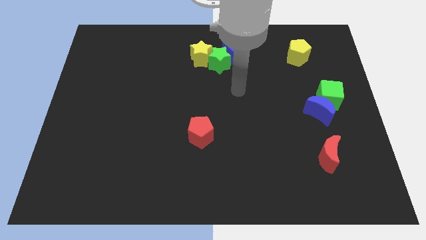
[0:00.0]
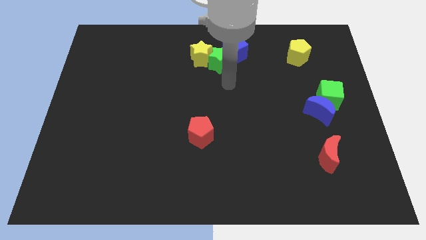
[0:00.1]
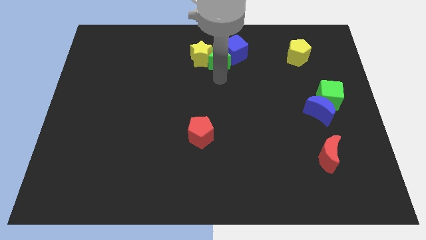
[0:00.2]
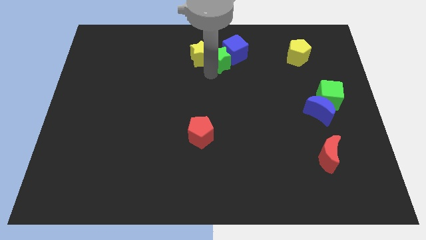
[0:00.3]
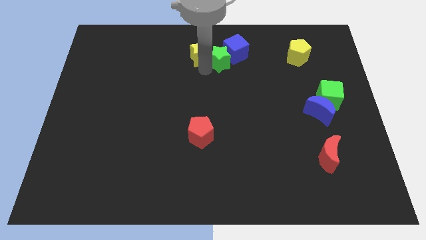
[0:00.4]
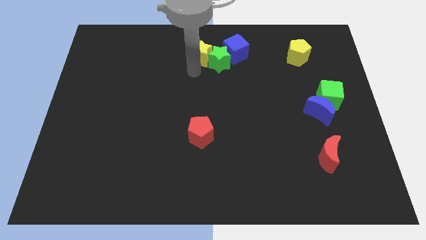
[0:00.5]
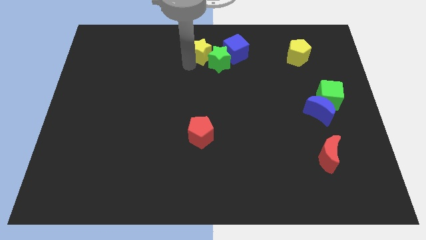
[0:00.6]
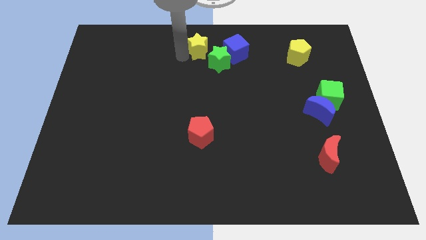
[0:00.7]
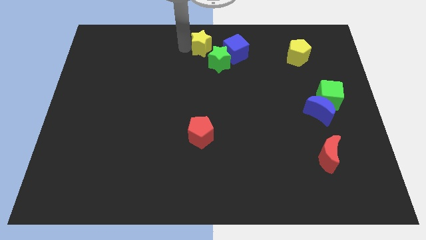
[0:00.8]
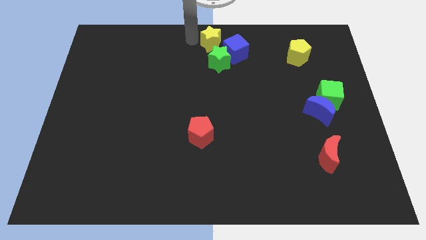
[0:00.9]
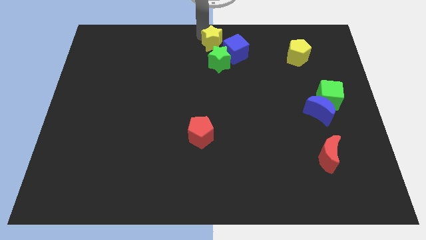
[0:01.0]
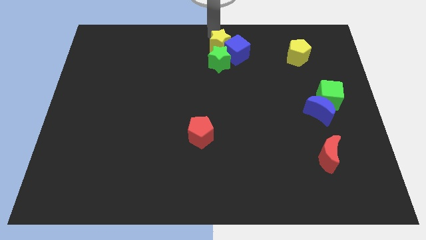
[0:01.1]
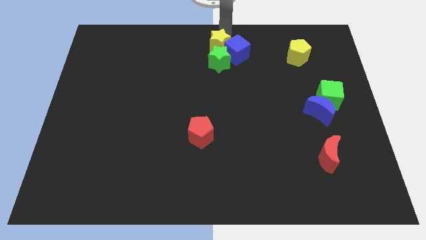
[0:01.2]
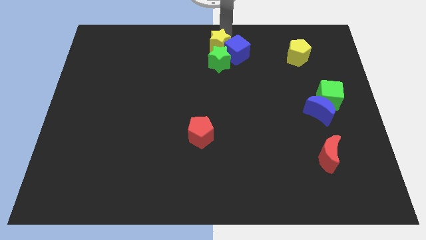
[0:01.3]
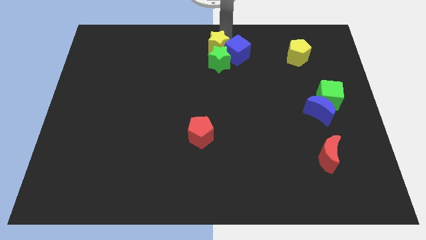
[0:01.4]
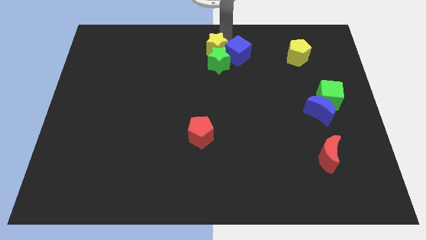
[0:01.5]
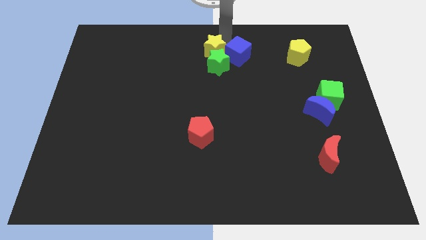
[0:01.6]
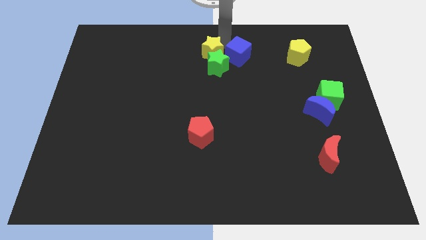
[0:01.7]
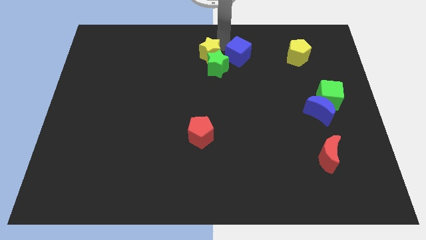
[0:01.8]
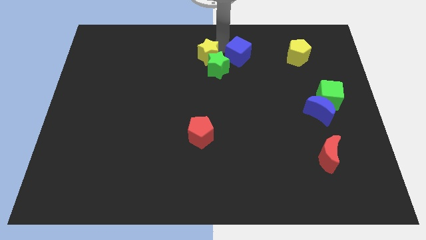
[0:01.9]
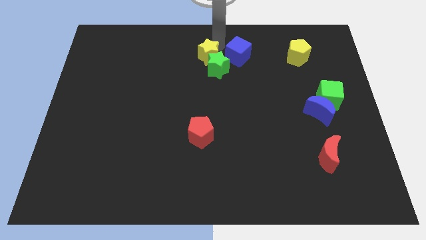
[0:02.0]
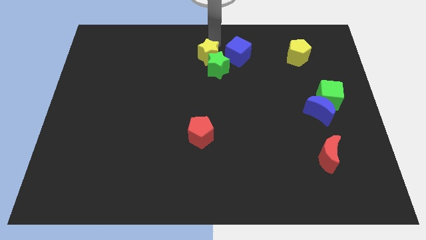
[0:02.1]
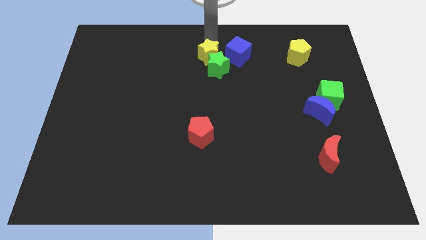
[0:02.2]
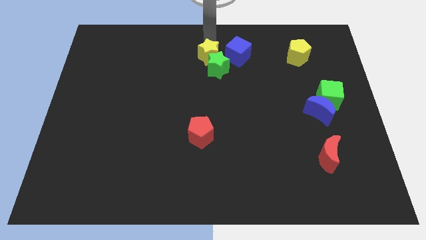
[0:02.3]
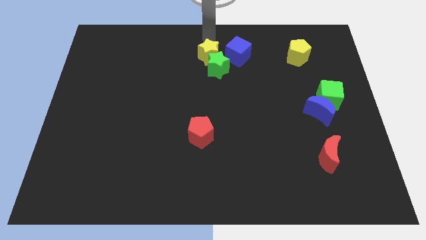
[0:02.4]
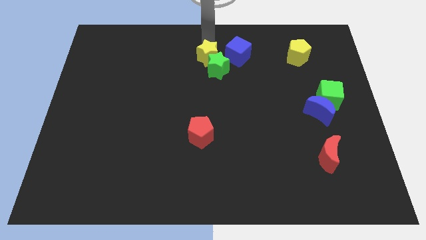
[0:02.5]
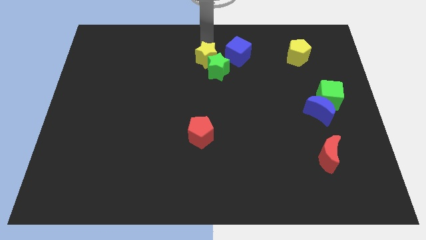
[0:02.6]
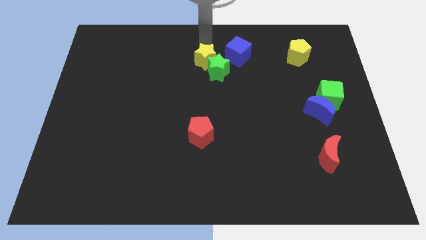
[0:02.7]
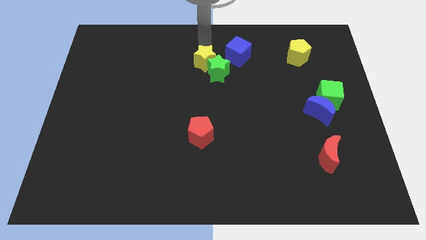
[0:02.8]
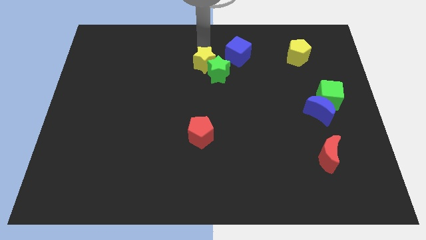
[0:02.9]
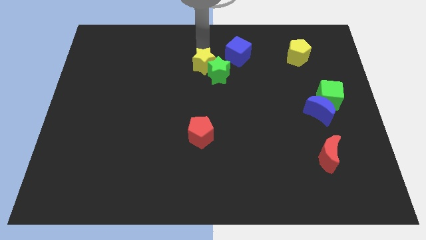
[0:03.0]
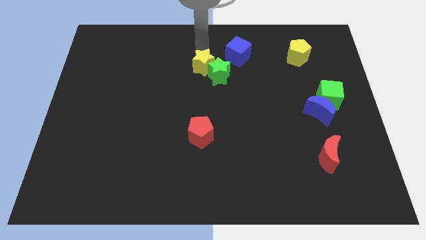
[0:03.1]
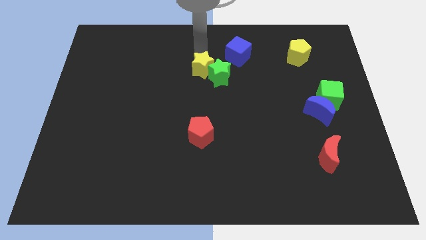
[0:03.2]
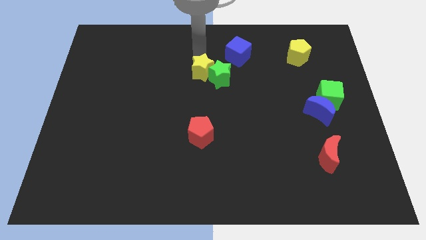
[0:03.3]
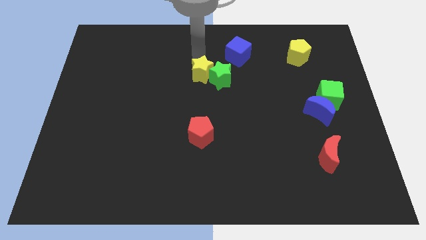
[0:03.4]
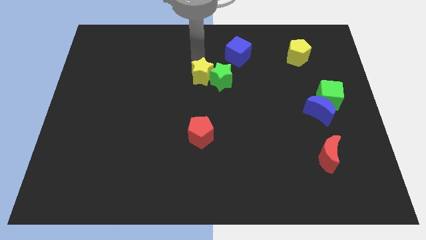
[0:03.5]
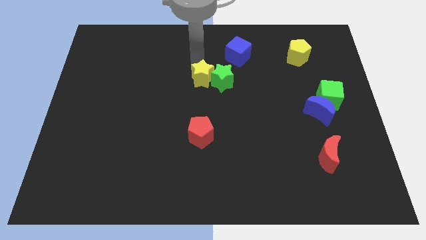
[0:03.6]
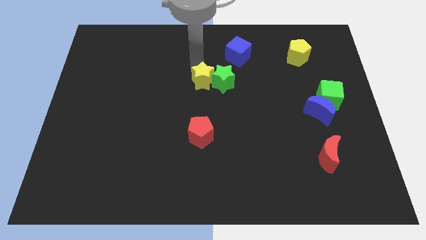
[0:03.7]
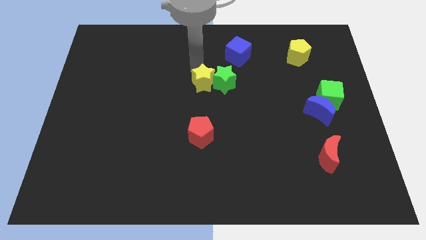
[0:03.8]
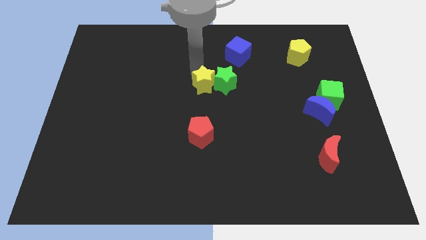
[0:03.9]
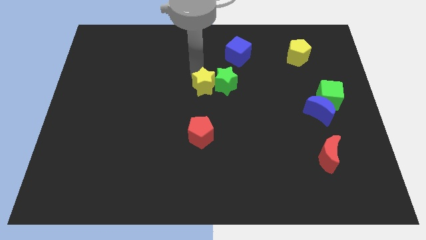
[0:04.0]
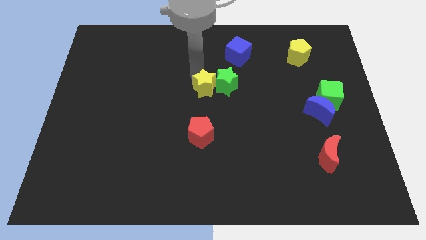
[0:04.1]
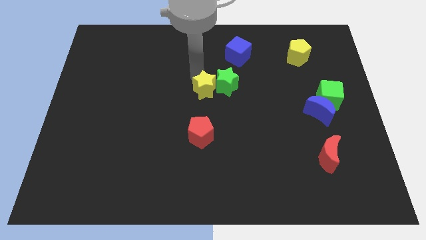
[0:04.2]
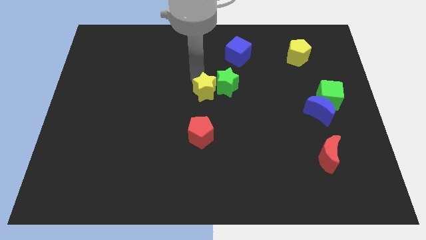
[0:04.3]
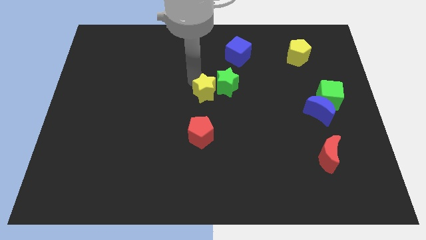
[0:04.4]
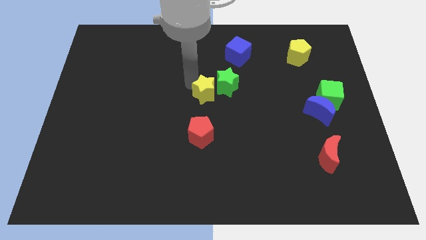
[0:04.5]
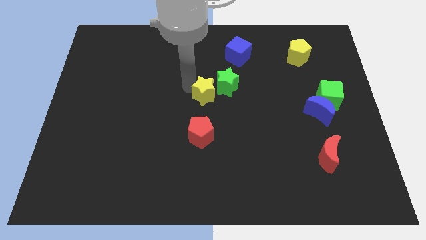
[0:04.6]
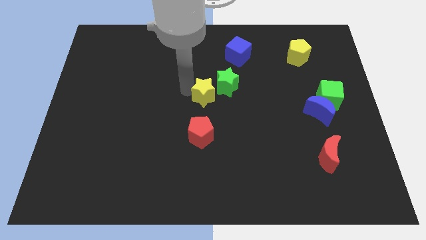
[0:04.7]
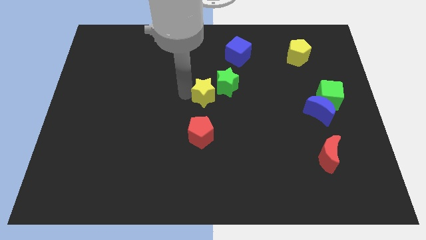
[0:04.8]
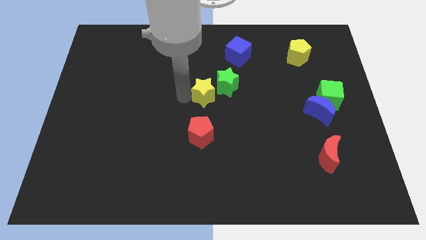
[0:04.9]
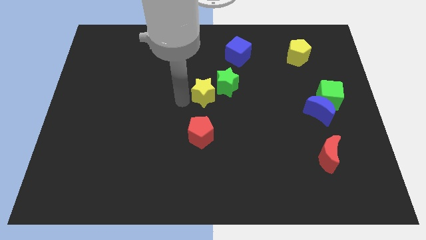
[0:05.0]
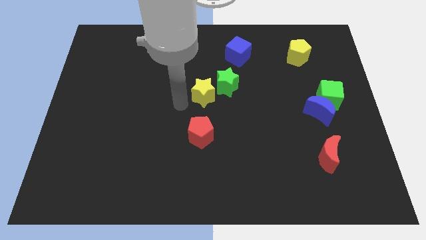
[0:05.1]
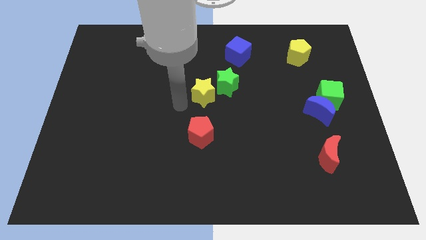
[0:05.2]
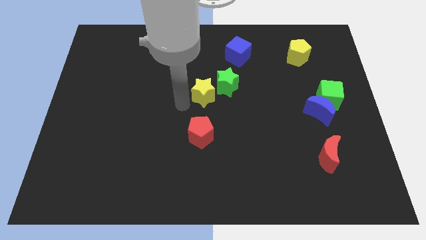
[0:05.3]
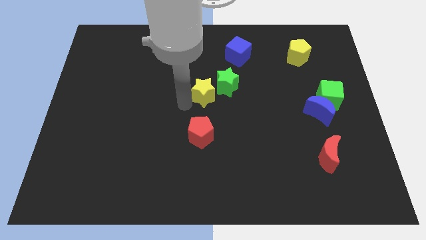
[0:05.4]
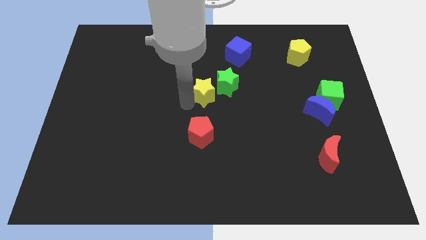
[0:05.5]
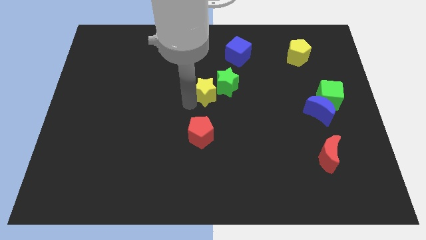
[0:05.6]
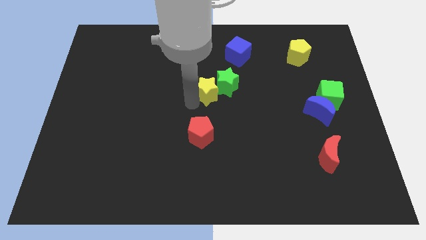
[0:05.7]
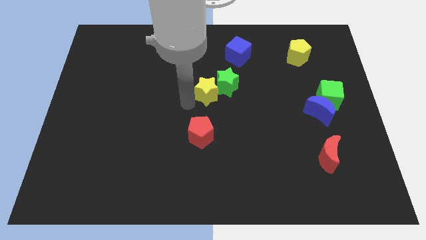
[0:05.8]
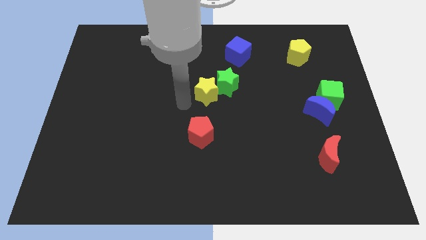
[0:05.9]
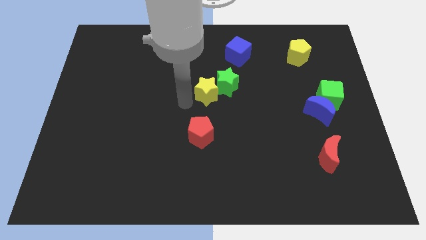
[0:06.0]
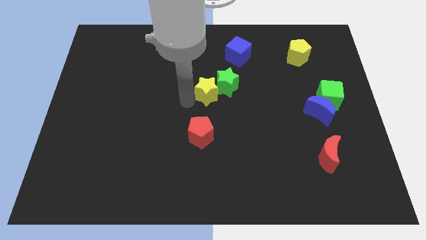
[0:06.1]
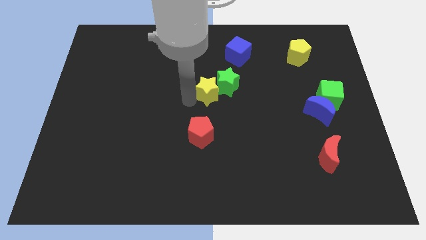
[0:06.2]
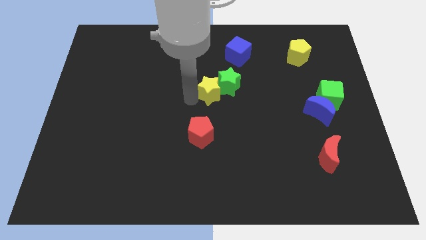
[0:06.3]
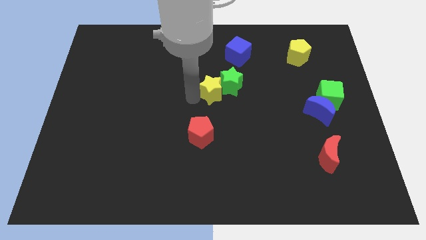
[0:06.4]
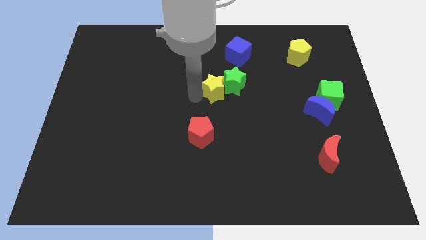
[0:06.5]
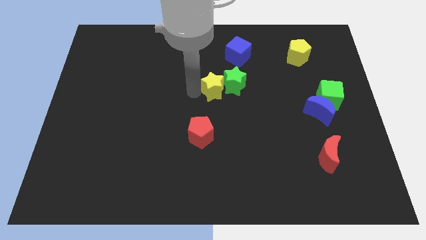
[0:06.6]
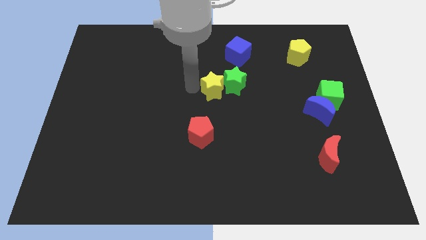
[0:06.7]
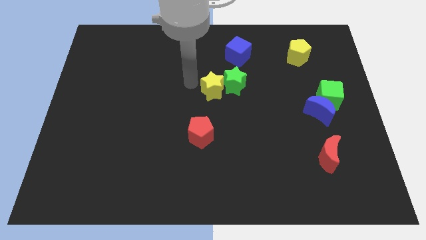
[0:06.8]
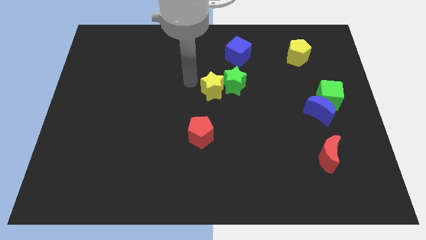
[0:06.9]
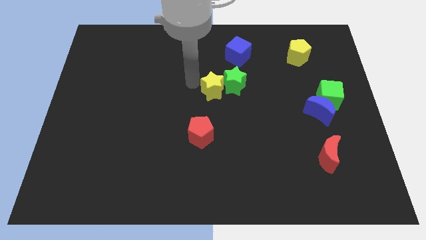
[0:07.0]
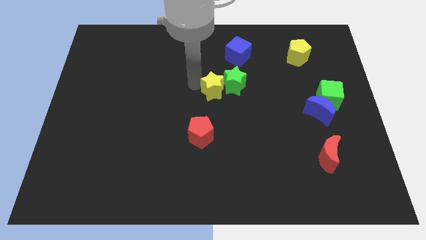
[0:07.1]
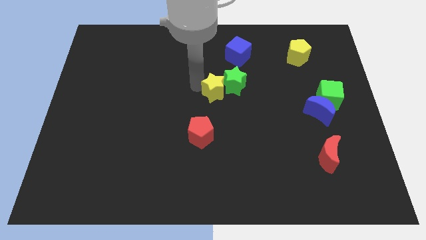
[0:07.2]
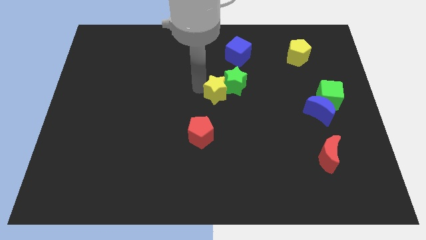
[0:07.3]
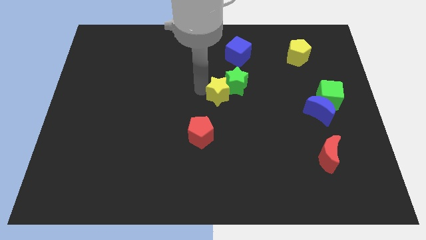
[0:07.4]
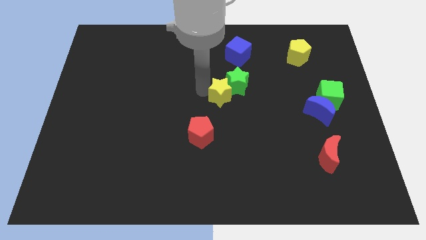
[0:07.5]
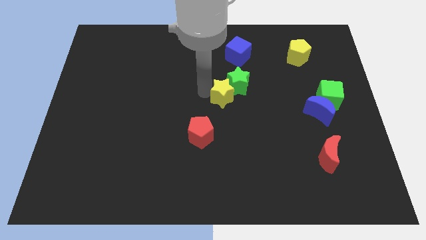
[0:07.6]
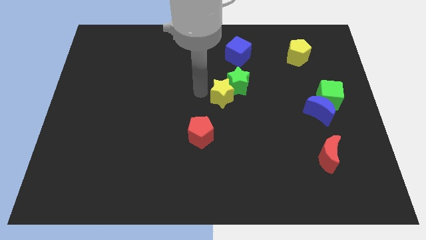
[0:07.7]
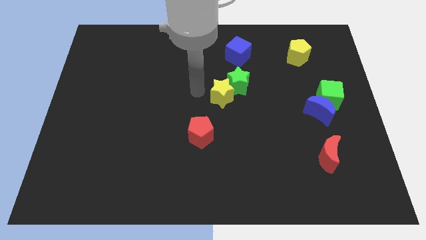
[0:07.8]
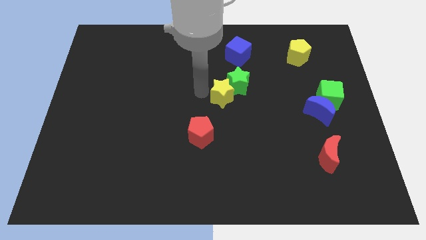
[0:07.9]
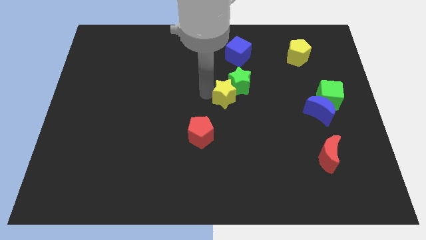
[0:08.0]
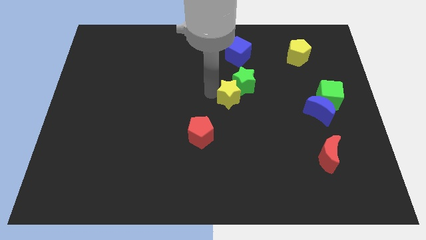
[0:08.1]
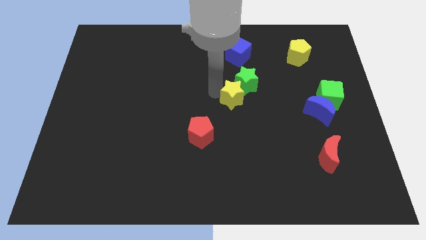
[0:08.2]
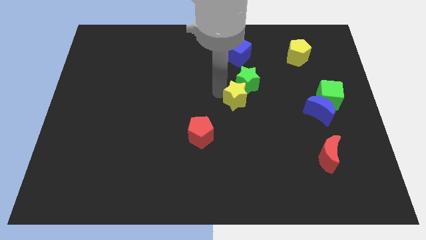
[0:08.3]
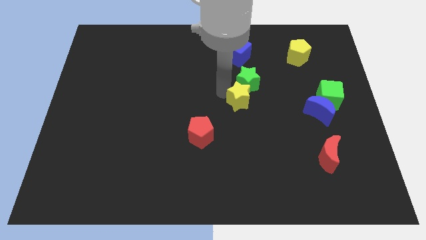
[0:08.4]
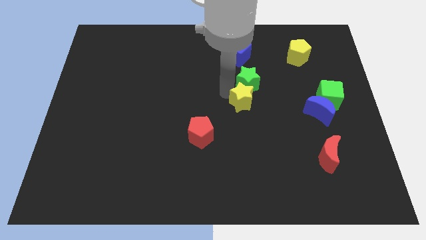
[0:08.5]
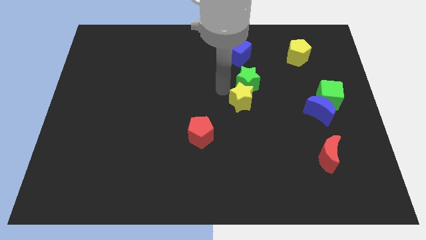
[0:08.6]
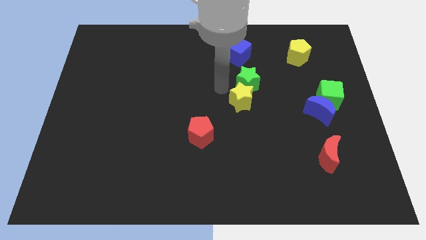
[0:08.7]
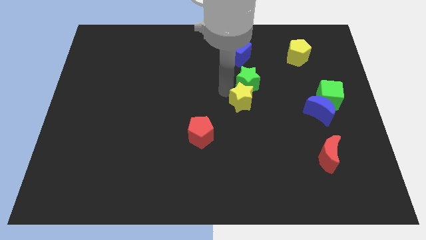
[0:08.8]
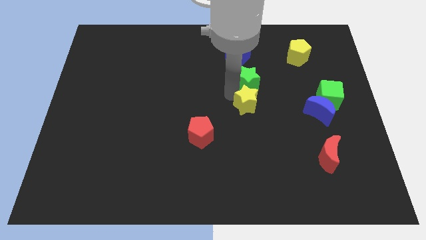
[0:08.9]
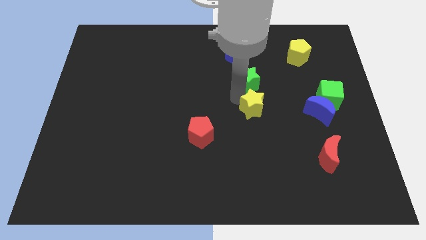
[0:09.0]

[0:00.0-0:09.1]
push the yellow star down and right
